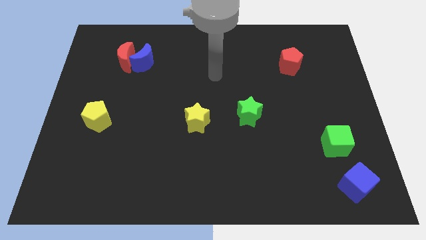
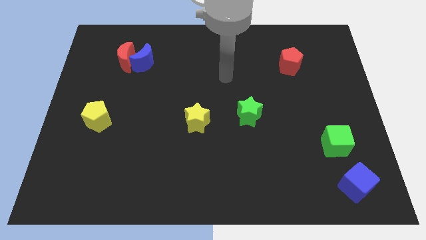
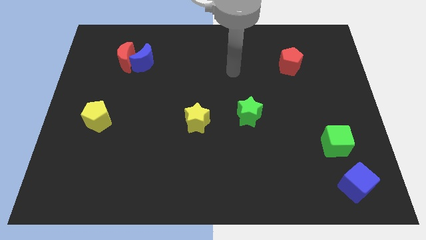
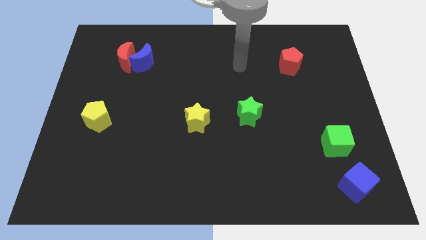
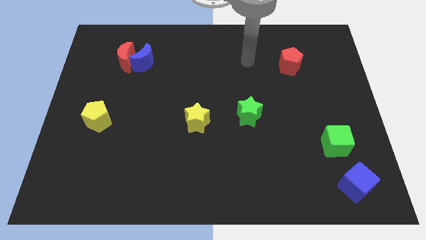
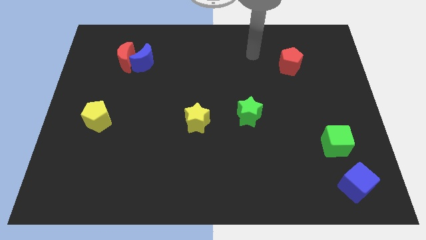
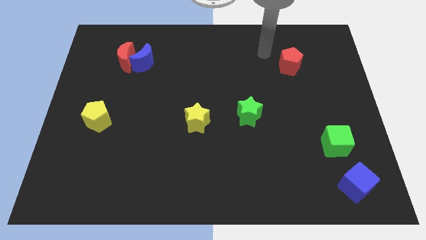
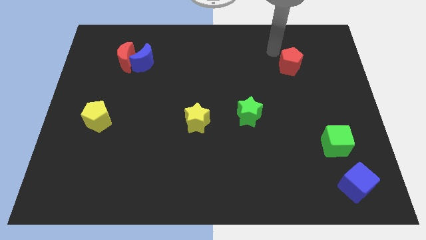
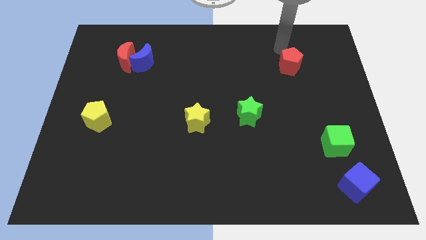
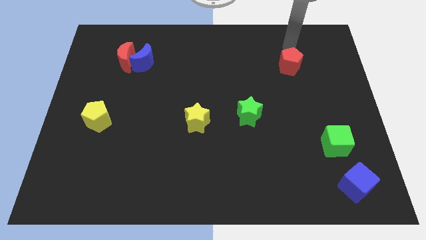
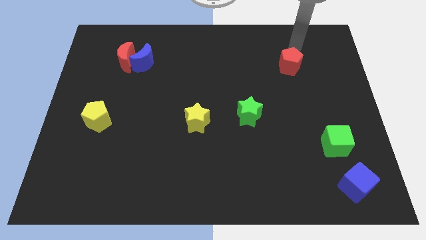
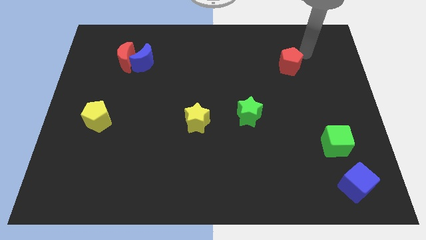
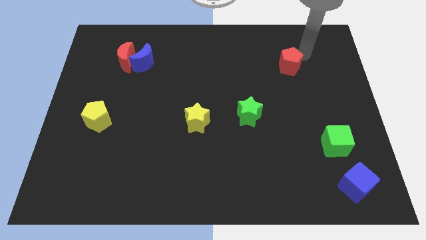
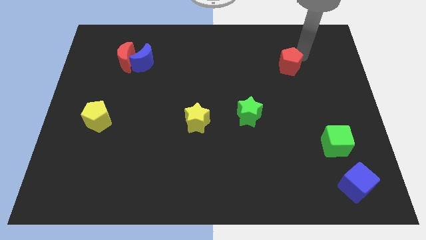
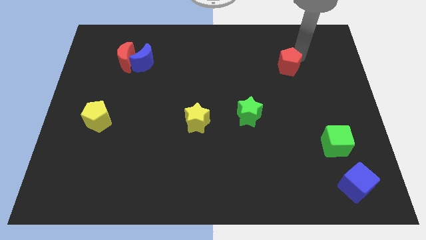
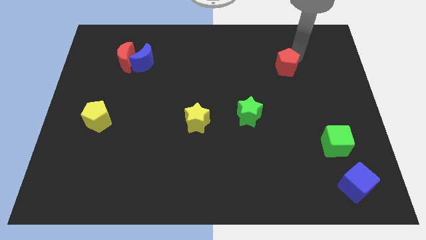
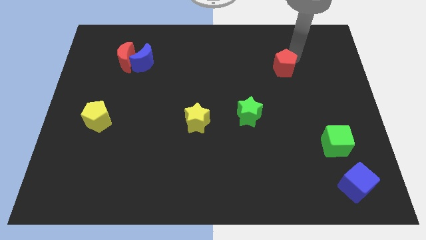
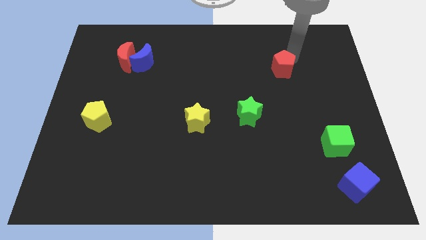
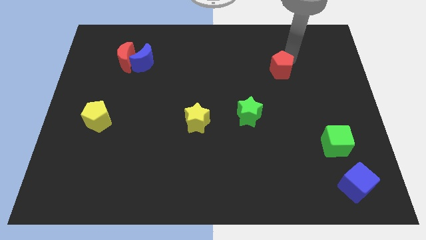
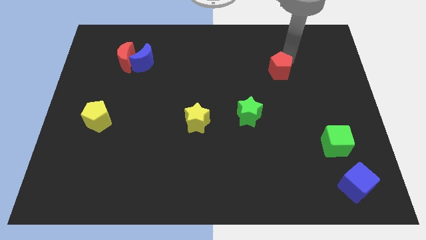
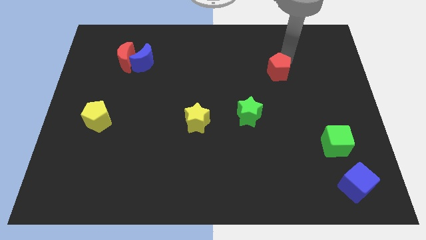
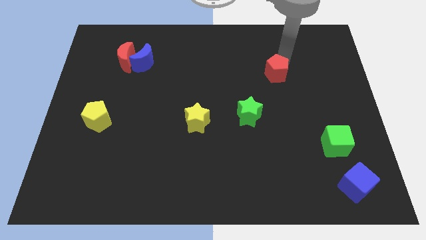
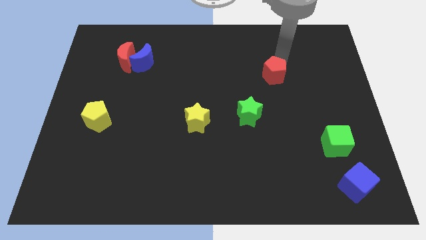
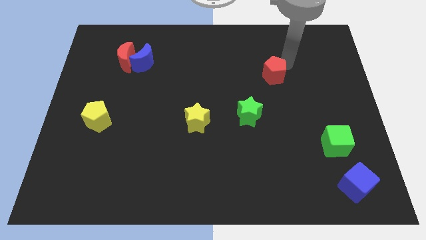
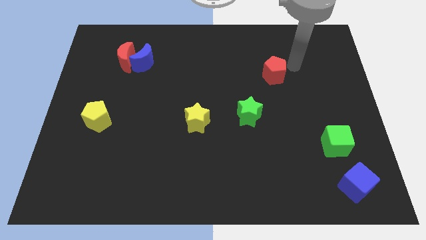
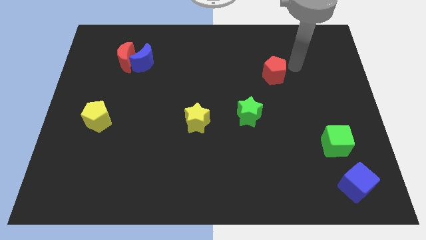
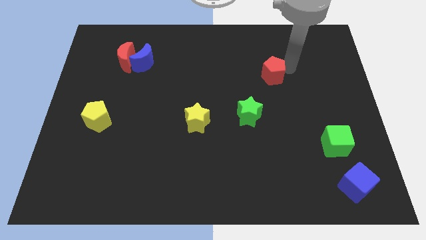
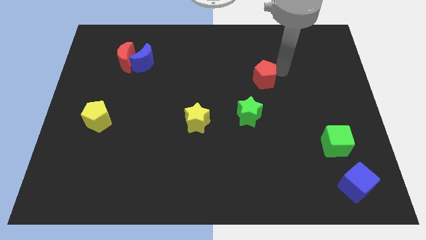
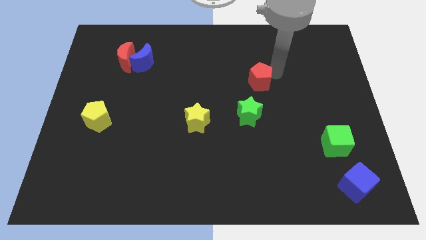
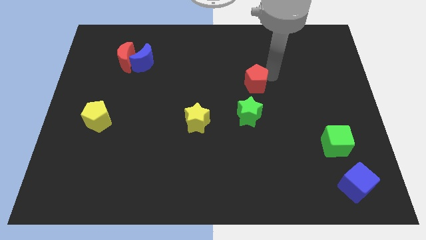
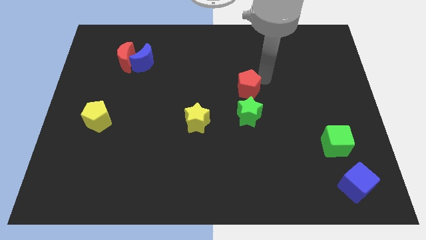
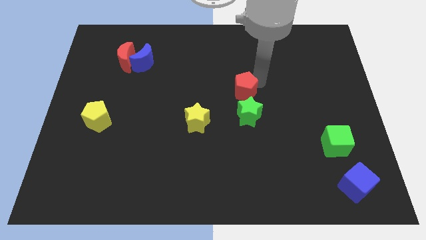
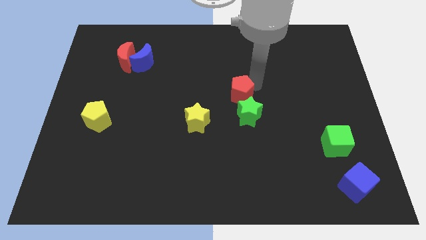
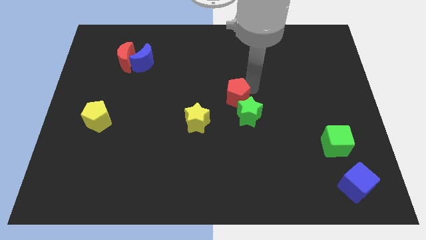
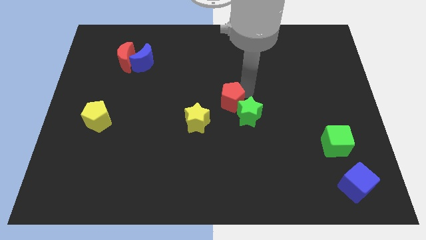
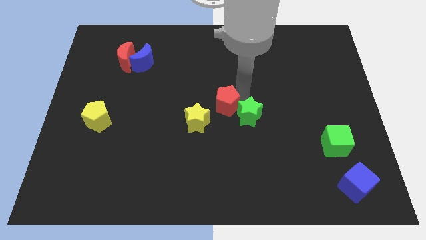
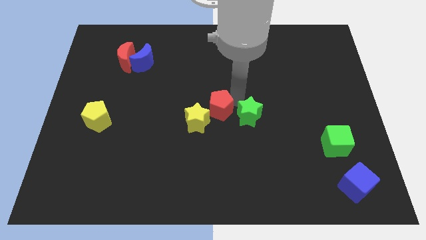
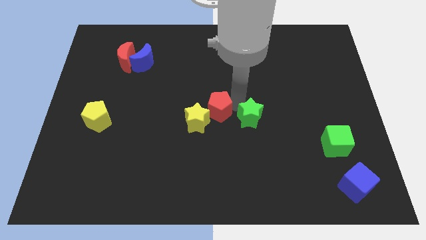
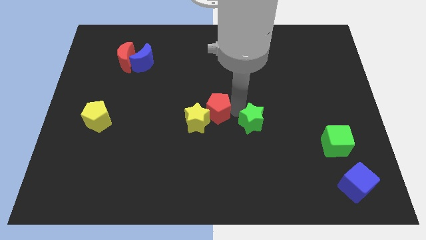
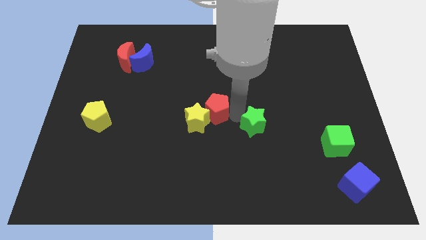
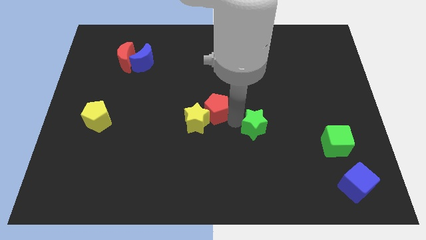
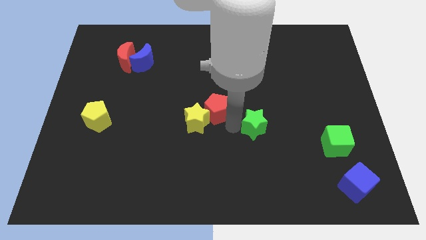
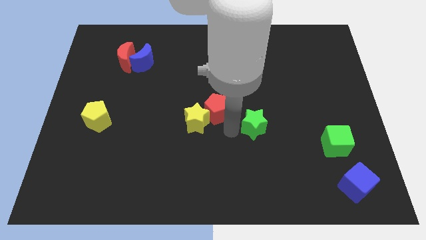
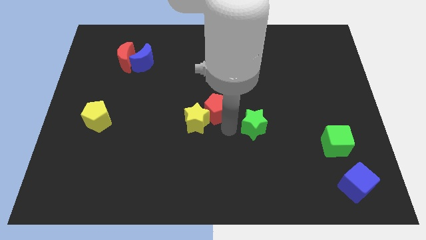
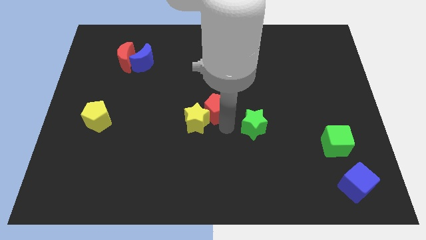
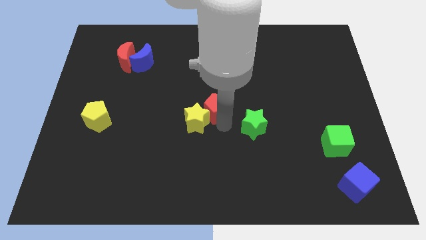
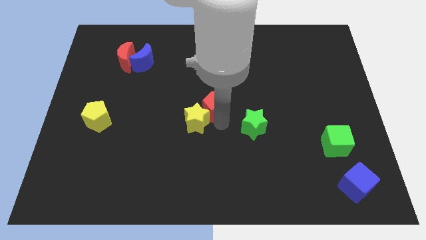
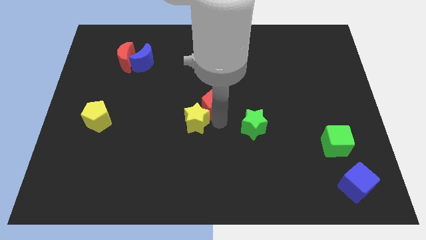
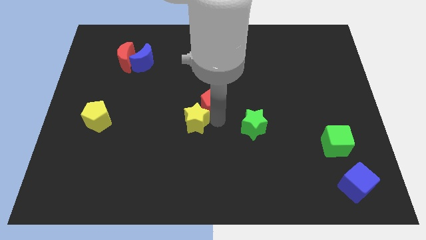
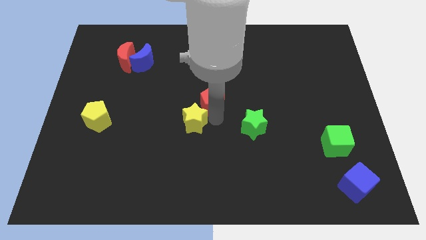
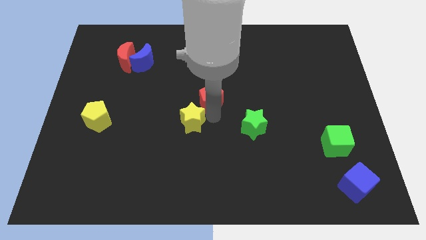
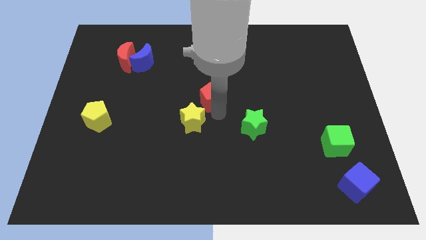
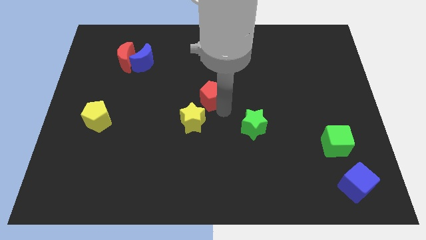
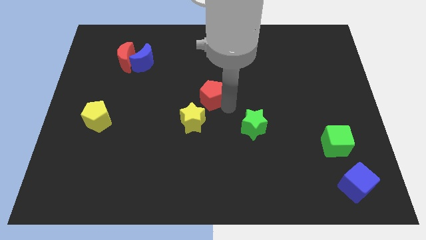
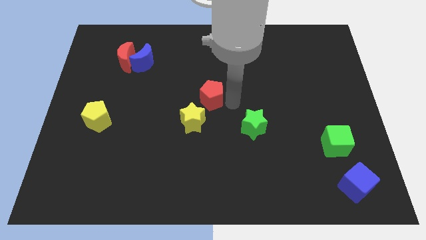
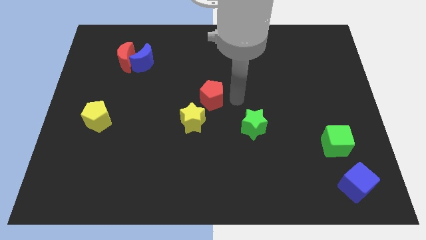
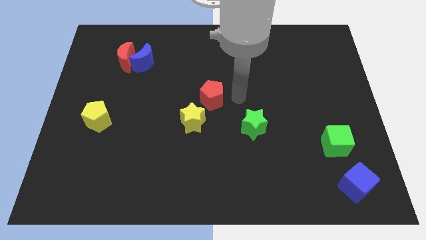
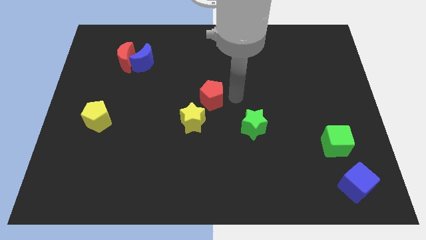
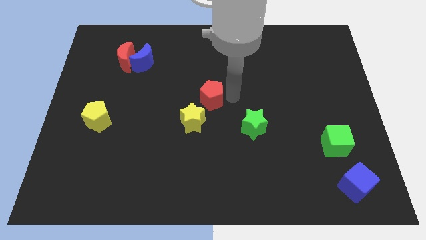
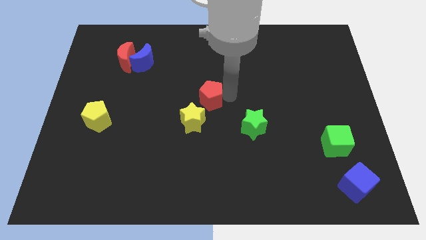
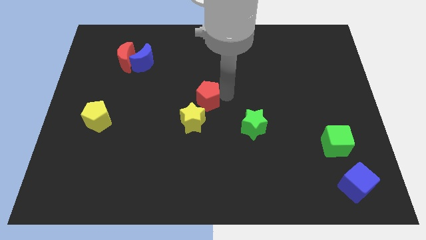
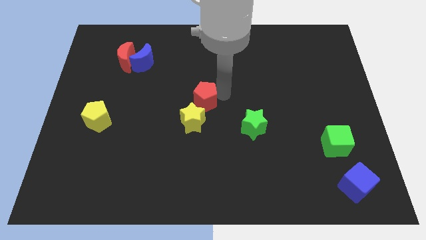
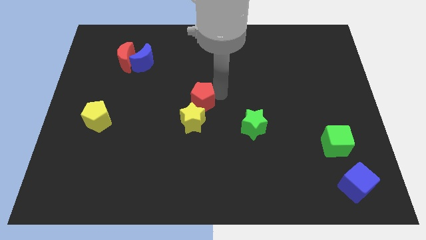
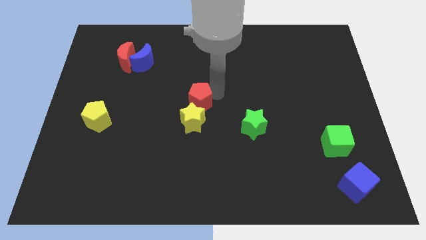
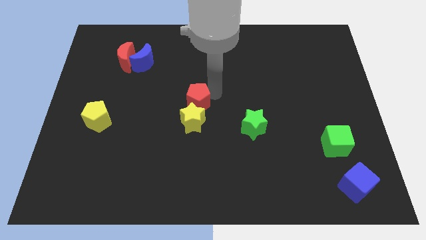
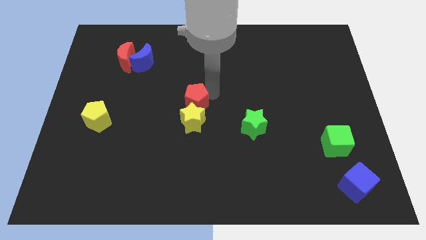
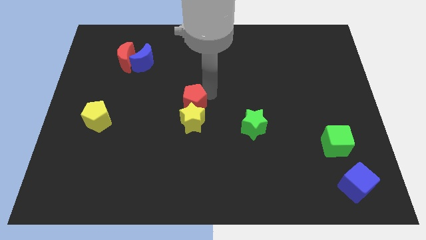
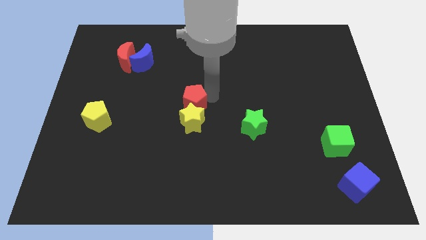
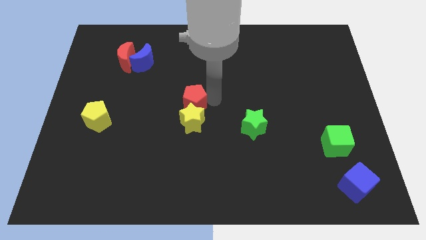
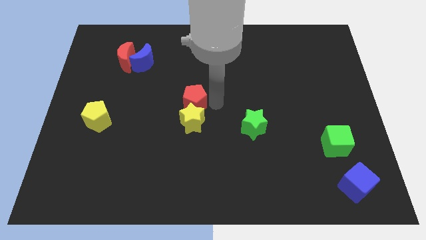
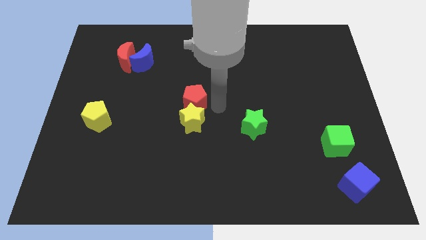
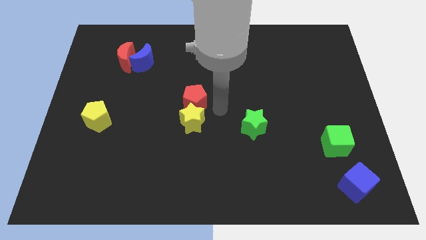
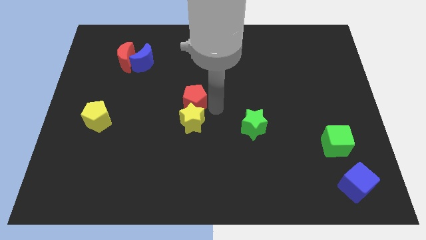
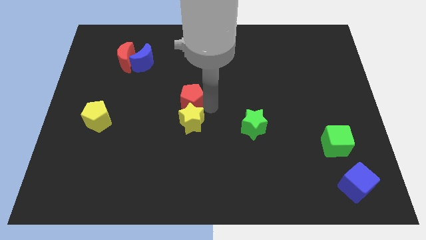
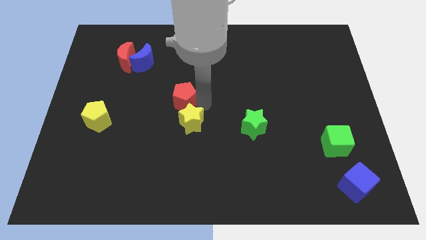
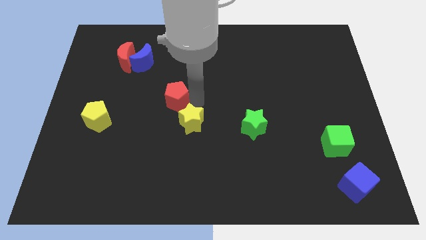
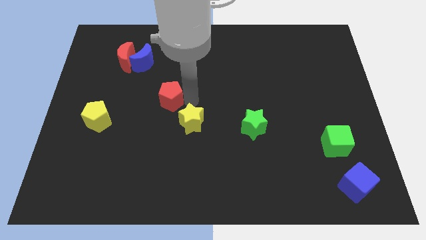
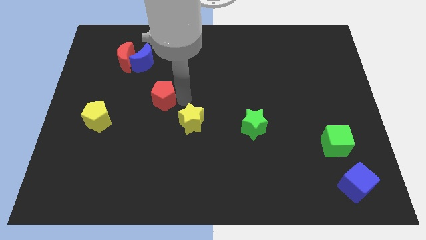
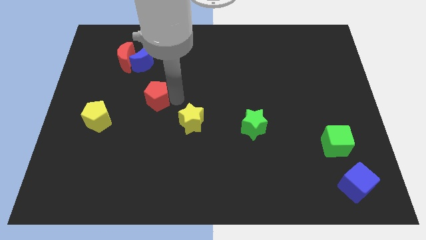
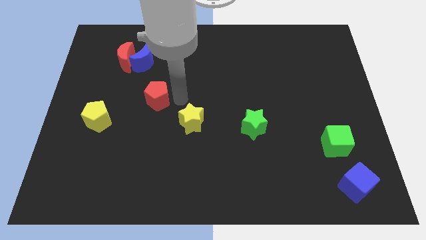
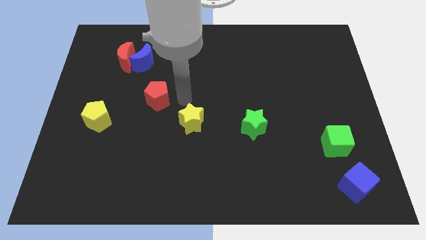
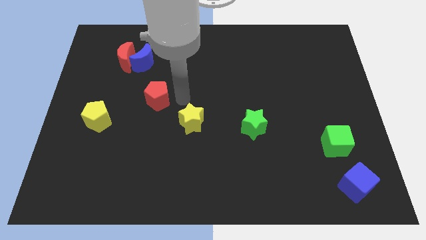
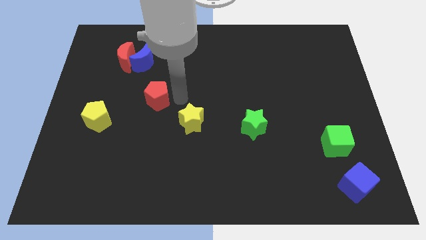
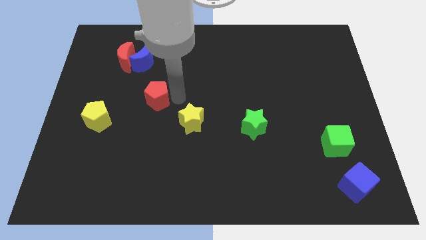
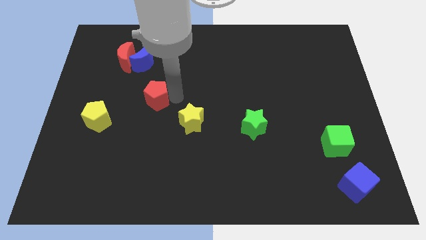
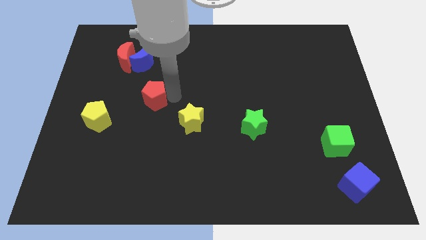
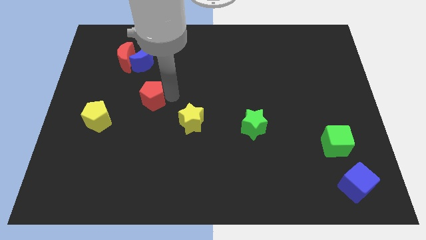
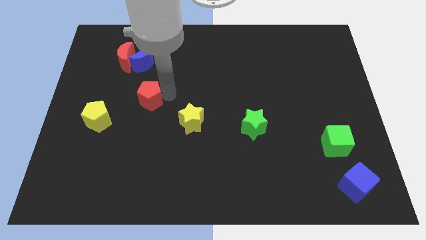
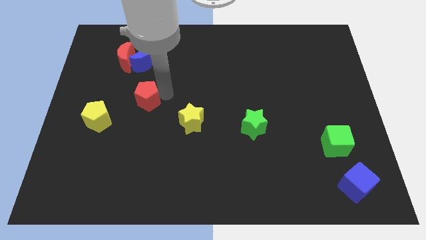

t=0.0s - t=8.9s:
slide the red pentagon diagonally up and to the right of the yellow pentagon
